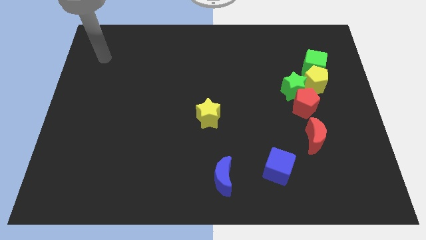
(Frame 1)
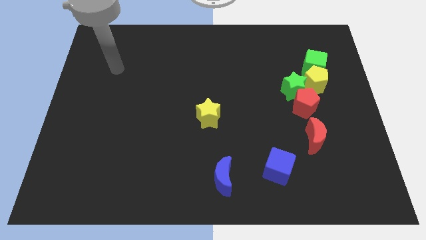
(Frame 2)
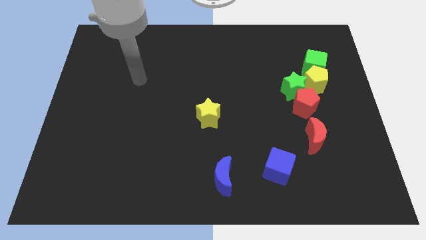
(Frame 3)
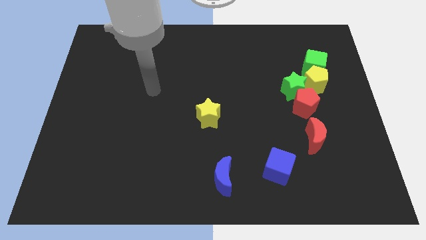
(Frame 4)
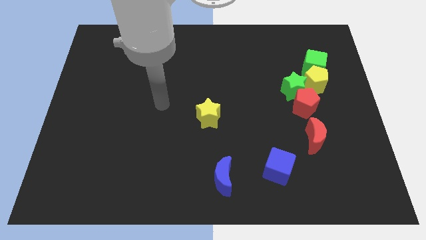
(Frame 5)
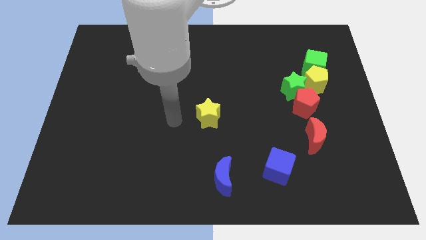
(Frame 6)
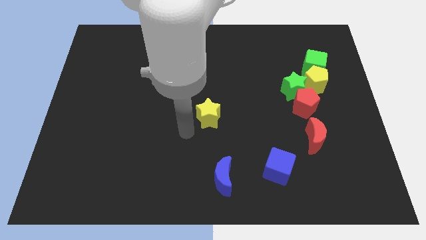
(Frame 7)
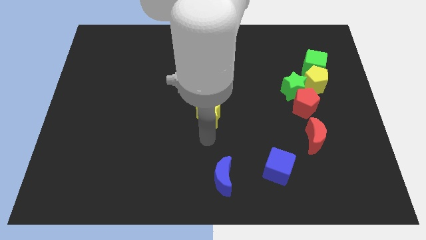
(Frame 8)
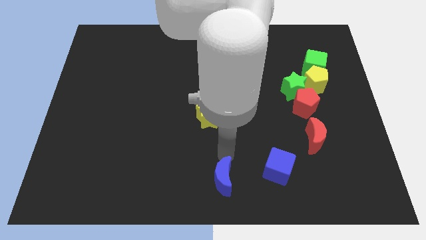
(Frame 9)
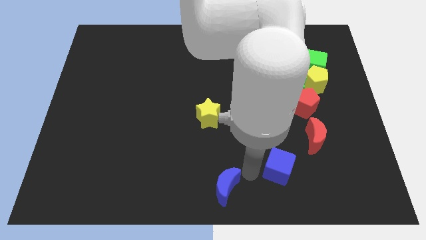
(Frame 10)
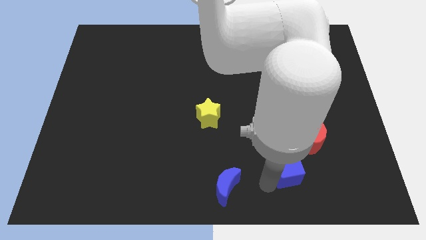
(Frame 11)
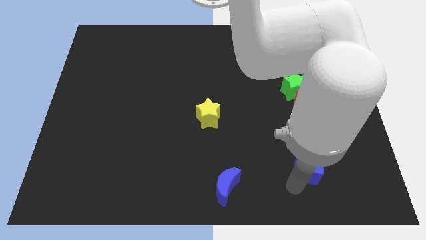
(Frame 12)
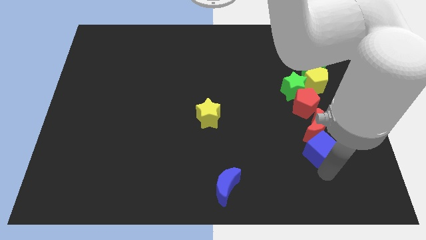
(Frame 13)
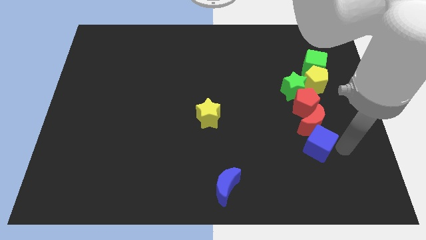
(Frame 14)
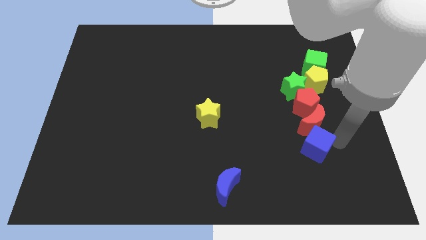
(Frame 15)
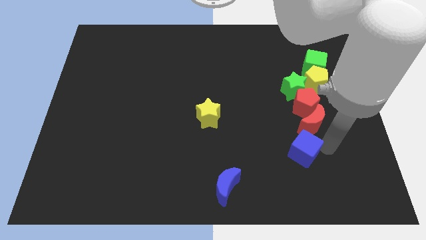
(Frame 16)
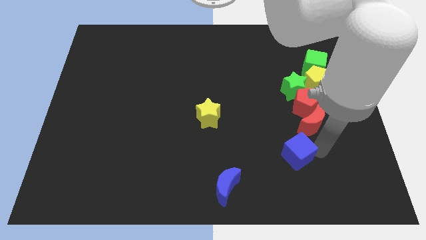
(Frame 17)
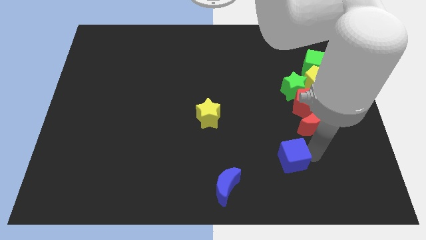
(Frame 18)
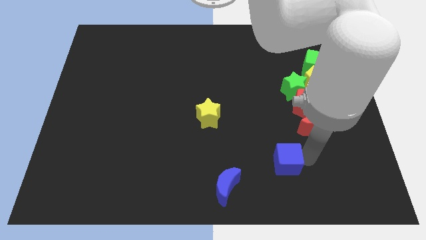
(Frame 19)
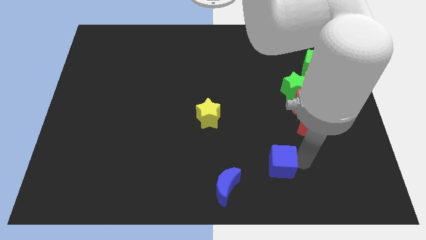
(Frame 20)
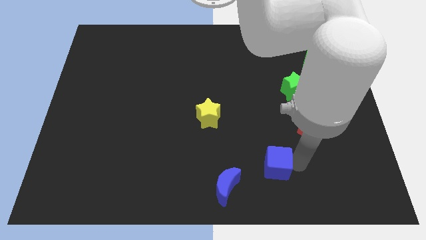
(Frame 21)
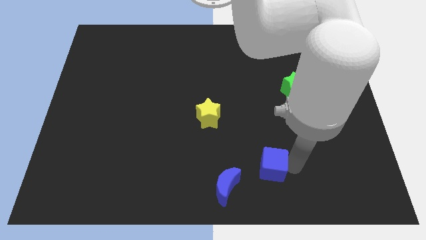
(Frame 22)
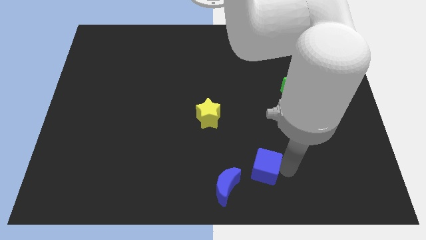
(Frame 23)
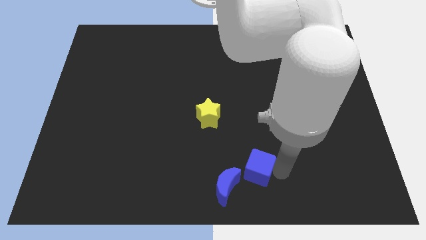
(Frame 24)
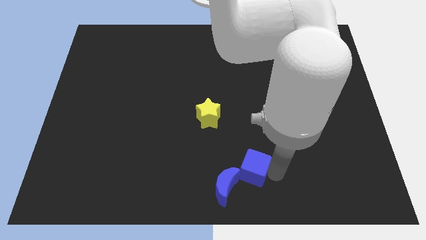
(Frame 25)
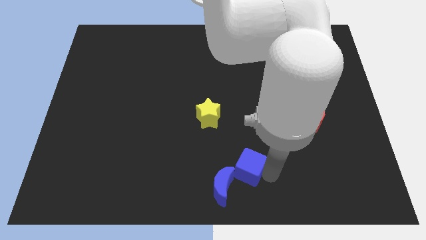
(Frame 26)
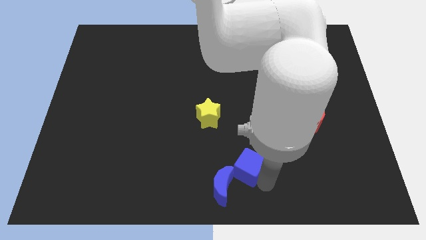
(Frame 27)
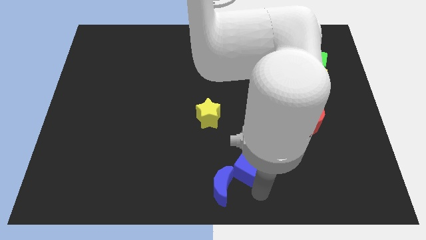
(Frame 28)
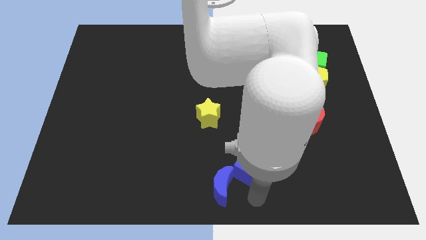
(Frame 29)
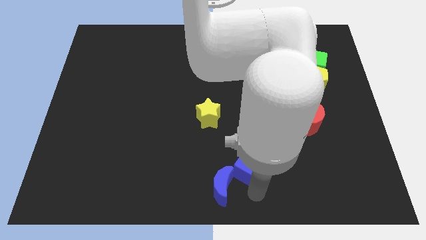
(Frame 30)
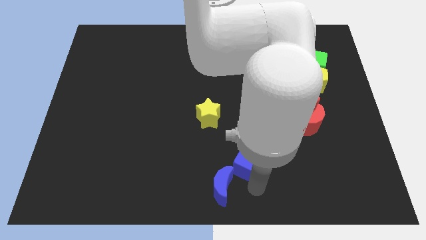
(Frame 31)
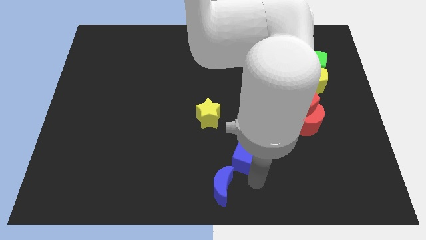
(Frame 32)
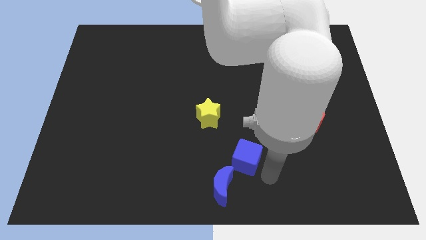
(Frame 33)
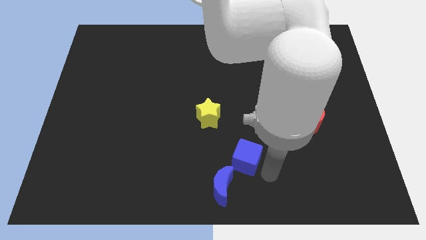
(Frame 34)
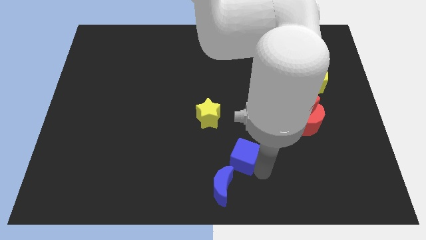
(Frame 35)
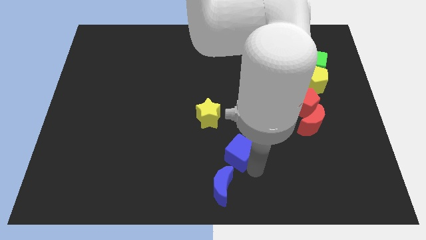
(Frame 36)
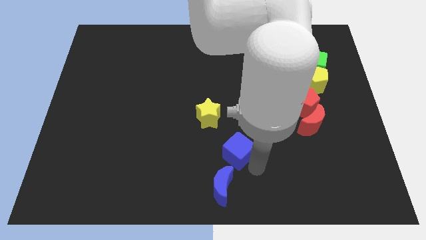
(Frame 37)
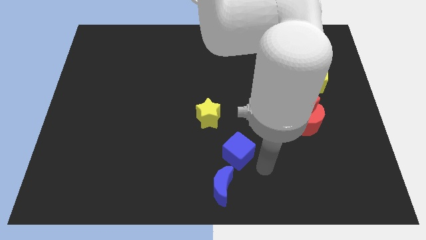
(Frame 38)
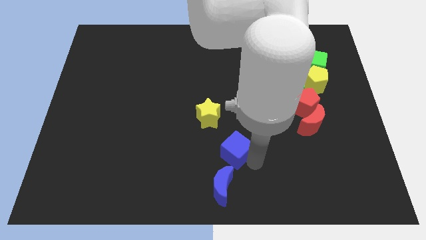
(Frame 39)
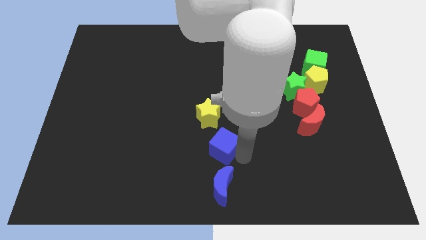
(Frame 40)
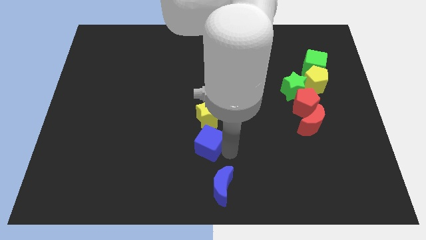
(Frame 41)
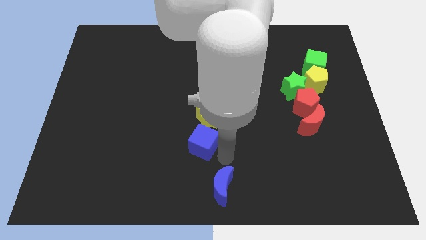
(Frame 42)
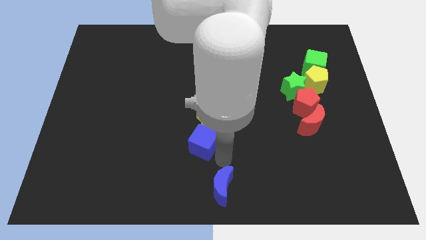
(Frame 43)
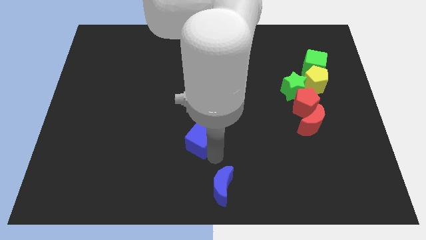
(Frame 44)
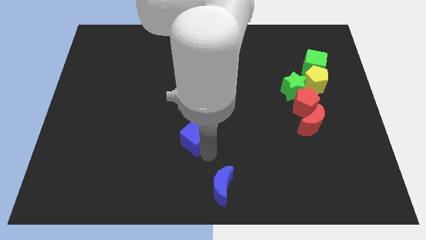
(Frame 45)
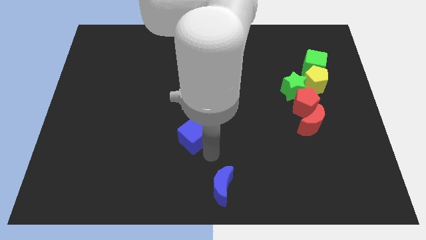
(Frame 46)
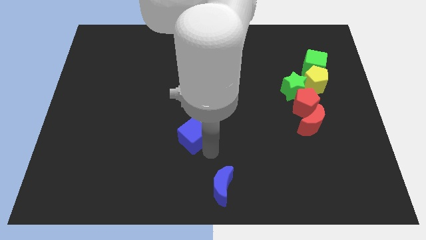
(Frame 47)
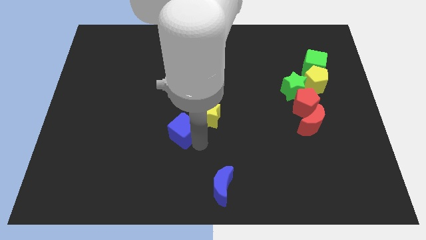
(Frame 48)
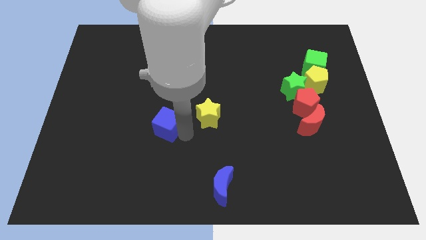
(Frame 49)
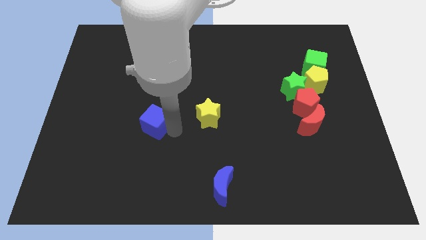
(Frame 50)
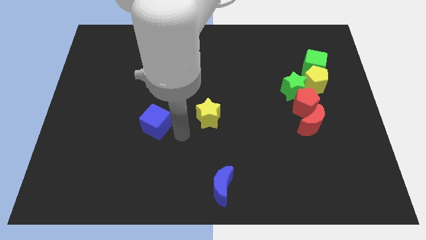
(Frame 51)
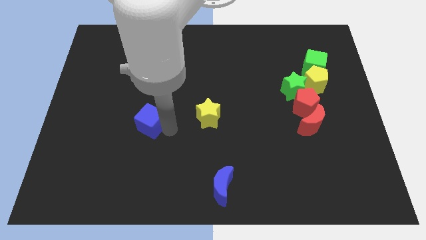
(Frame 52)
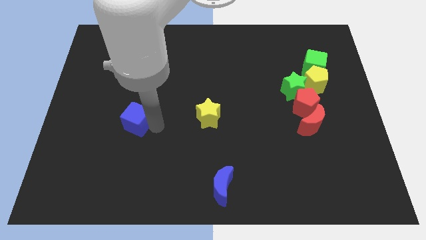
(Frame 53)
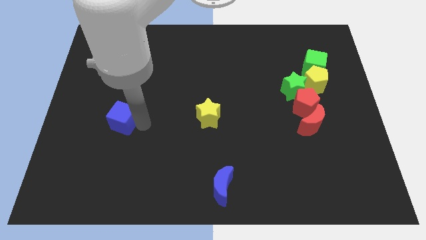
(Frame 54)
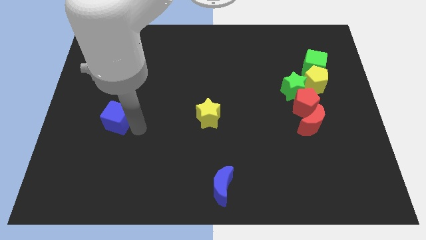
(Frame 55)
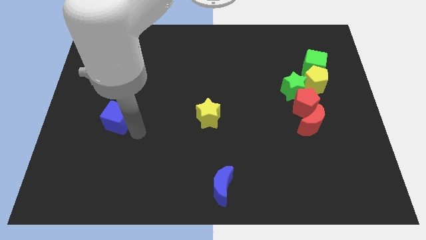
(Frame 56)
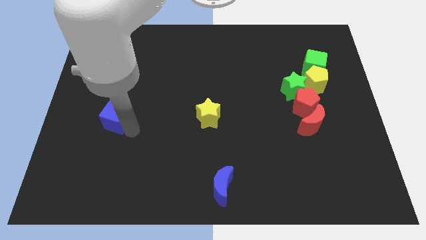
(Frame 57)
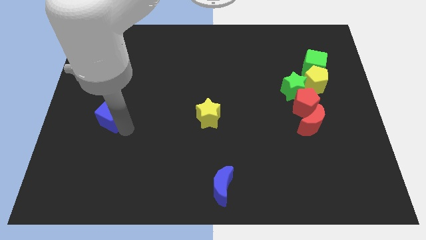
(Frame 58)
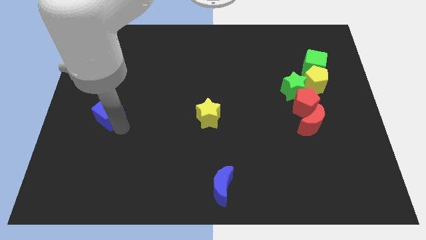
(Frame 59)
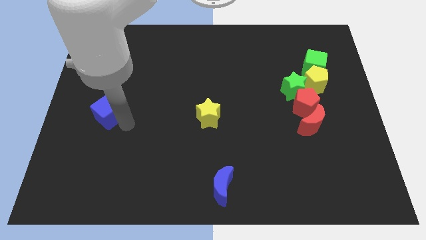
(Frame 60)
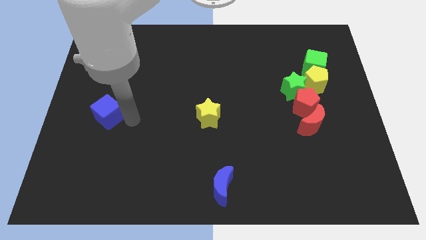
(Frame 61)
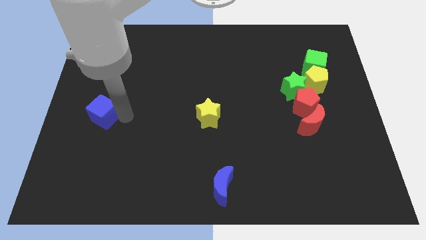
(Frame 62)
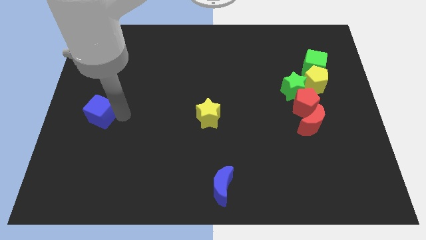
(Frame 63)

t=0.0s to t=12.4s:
move the blue cube to the center left

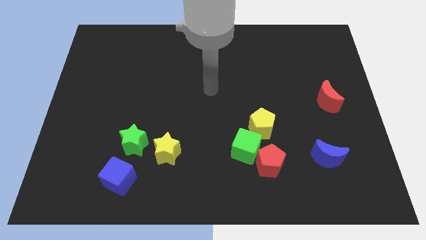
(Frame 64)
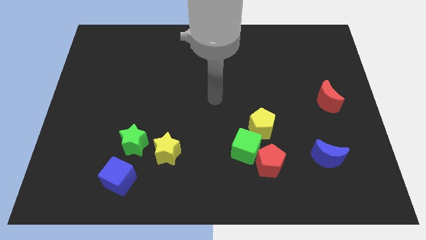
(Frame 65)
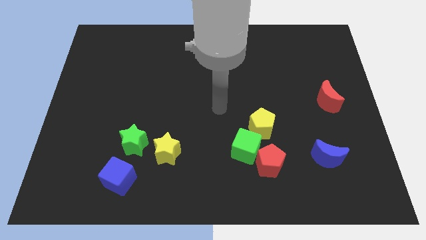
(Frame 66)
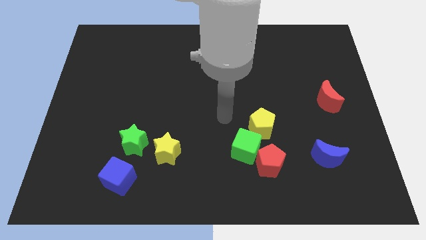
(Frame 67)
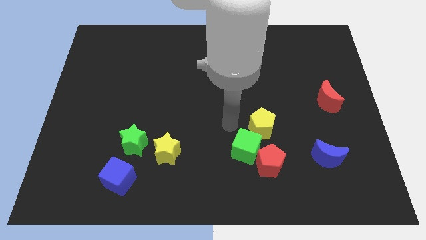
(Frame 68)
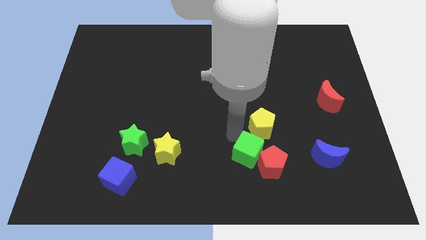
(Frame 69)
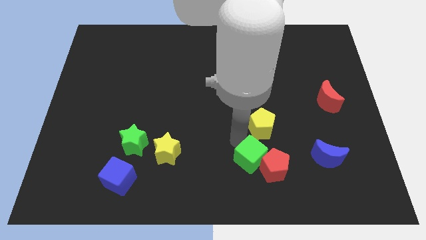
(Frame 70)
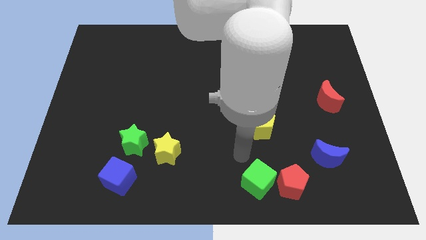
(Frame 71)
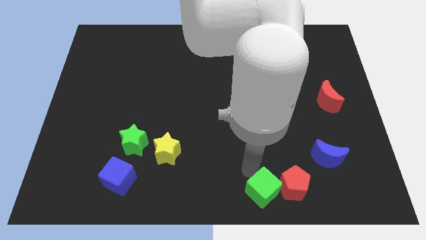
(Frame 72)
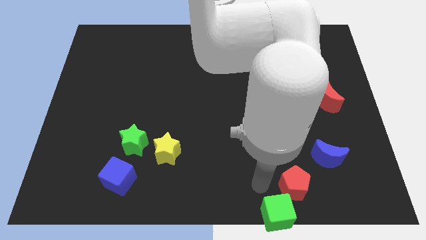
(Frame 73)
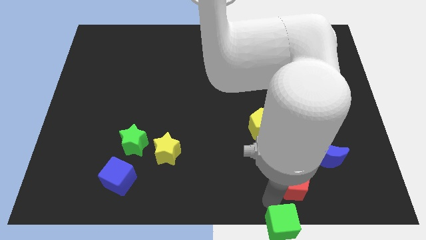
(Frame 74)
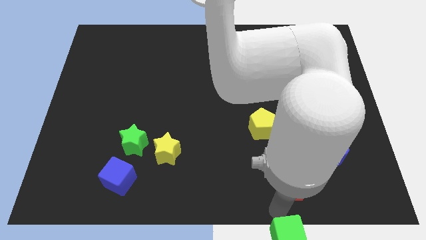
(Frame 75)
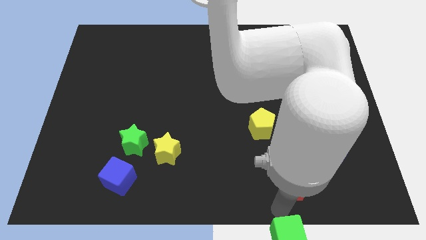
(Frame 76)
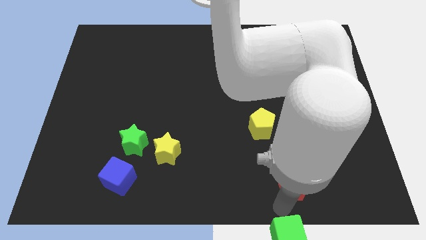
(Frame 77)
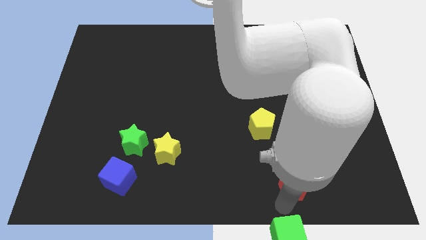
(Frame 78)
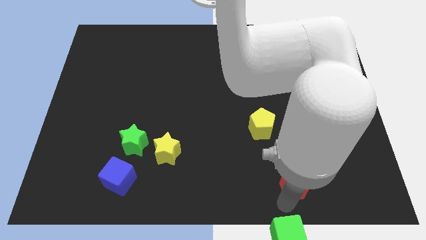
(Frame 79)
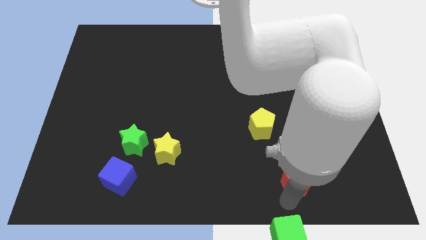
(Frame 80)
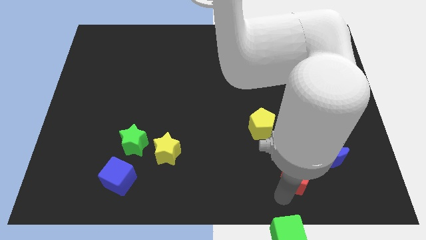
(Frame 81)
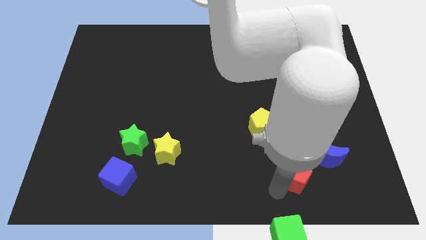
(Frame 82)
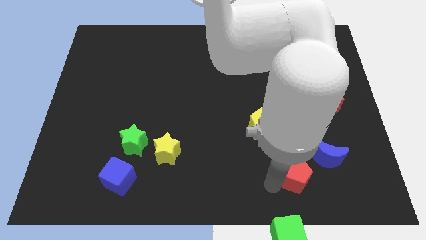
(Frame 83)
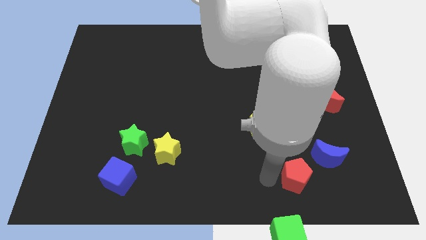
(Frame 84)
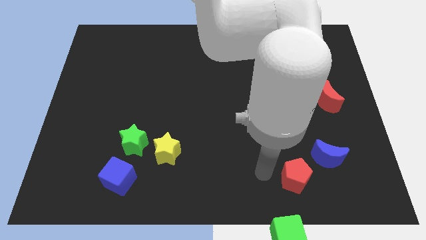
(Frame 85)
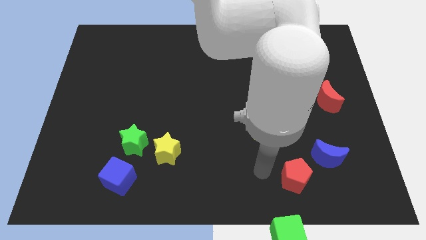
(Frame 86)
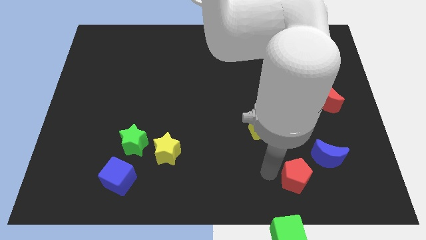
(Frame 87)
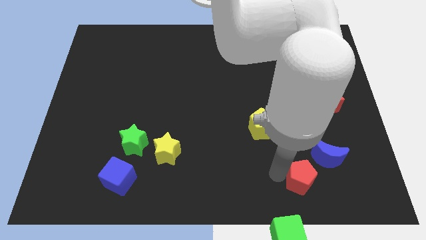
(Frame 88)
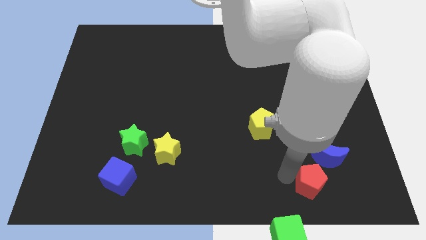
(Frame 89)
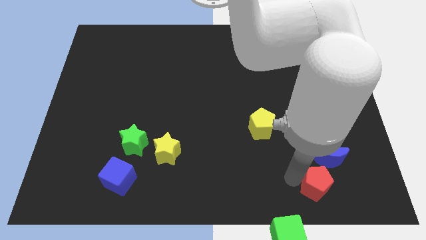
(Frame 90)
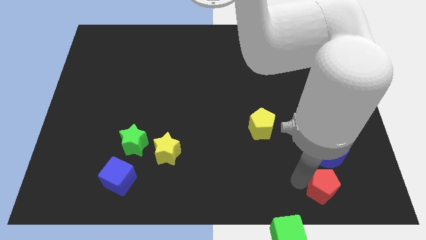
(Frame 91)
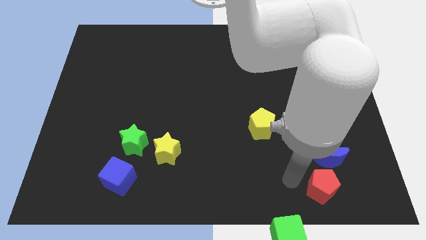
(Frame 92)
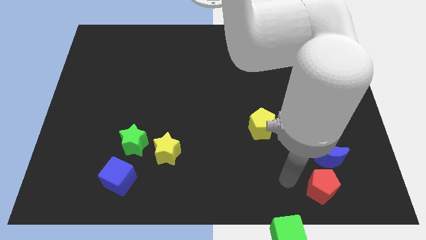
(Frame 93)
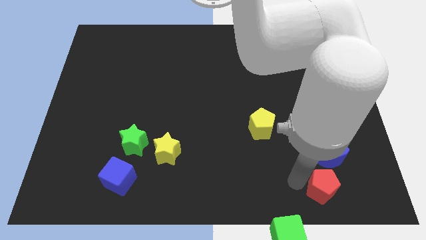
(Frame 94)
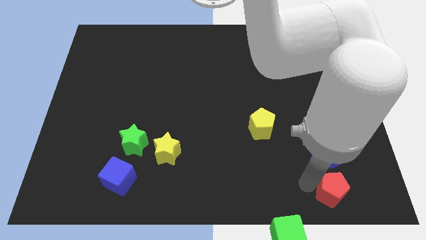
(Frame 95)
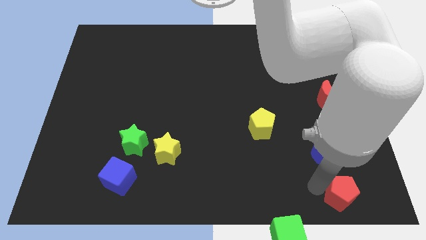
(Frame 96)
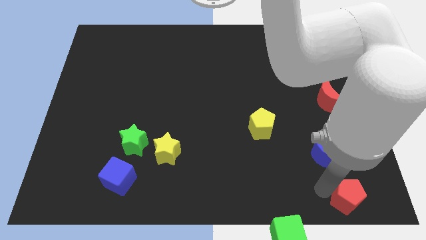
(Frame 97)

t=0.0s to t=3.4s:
move the red pentagon to the lower right corner
